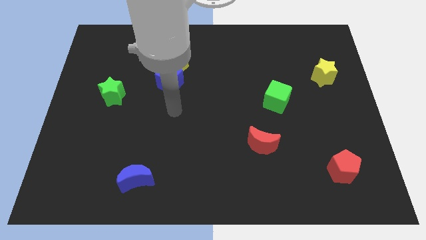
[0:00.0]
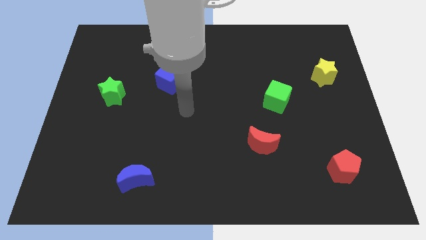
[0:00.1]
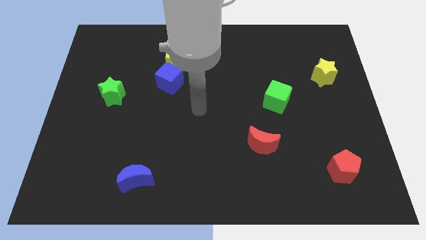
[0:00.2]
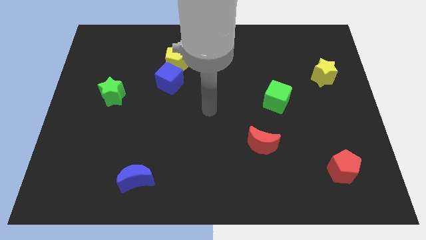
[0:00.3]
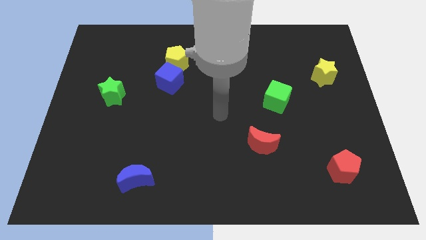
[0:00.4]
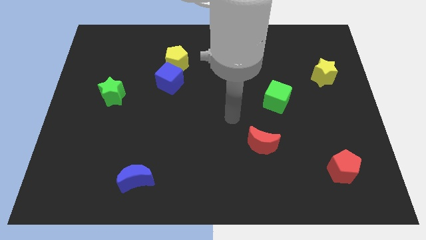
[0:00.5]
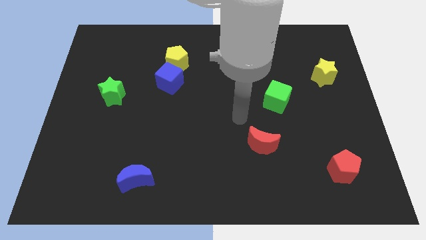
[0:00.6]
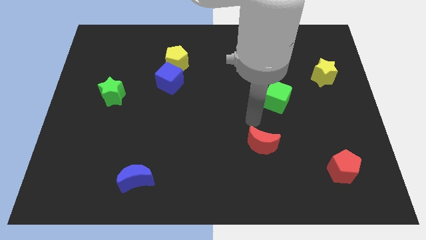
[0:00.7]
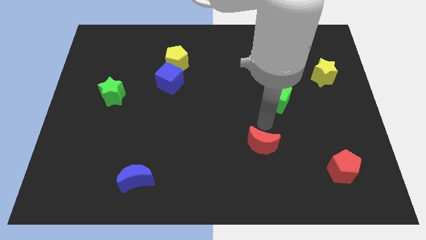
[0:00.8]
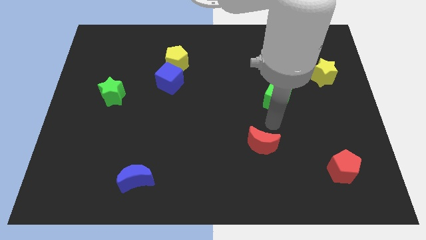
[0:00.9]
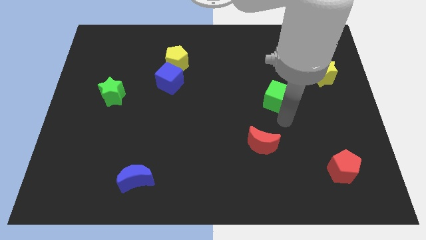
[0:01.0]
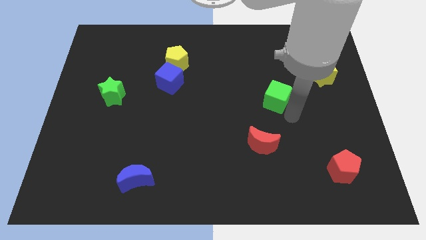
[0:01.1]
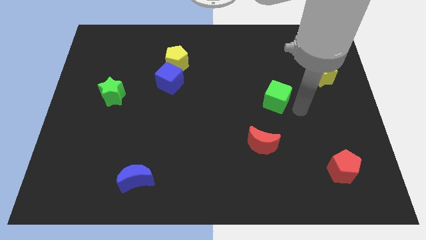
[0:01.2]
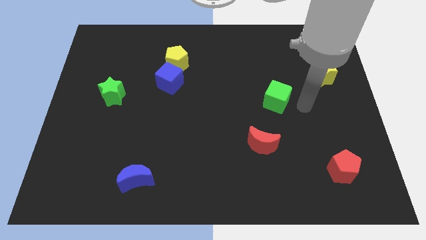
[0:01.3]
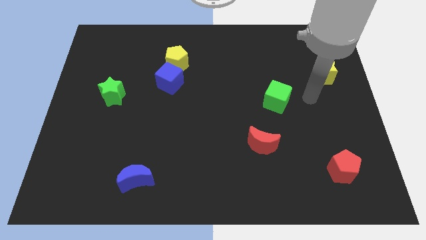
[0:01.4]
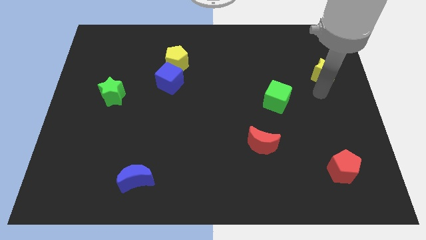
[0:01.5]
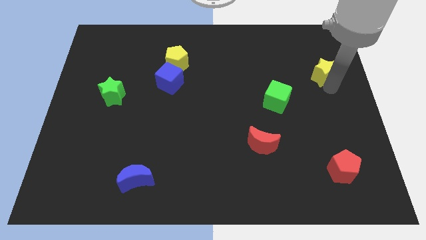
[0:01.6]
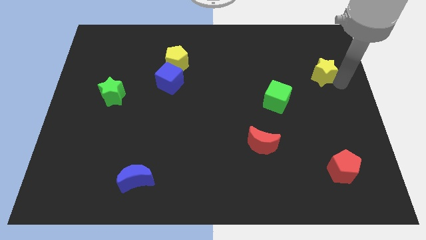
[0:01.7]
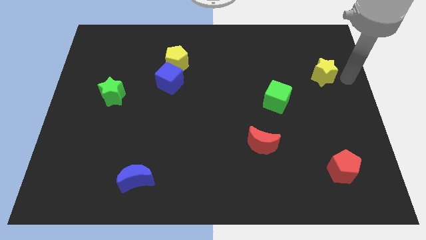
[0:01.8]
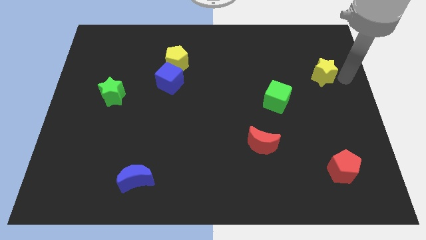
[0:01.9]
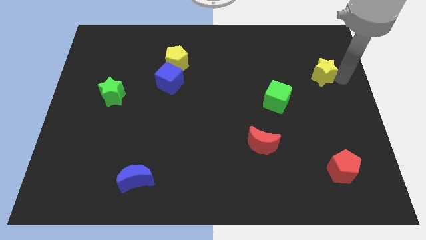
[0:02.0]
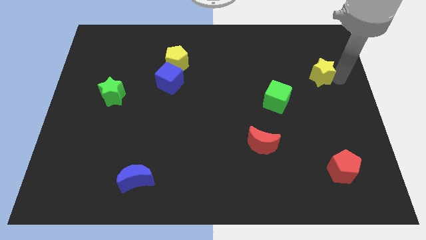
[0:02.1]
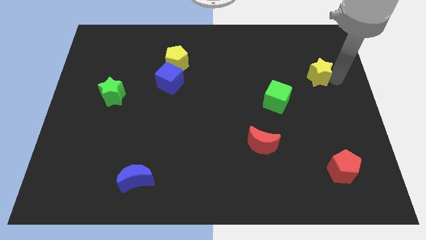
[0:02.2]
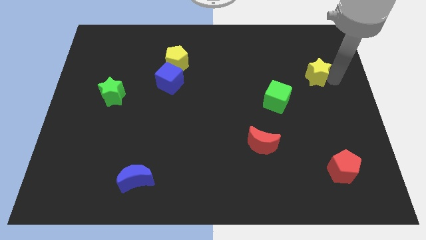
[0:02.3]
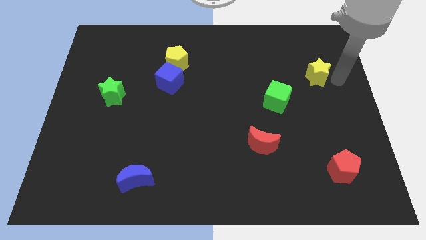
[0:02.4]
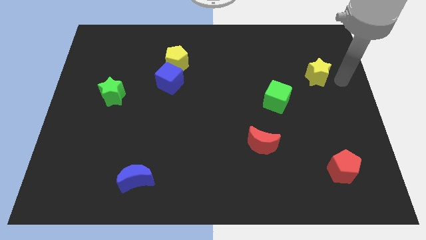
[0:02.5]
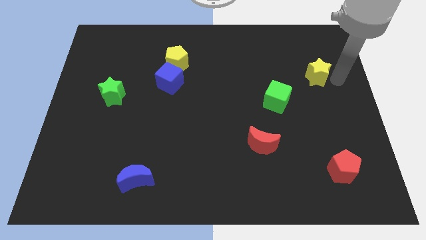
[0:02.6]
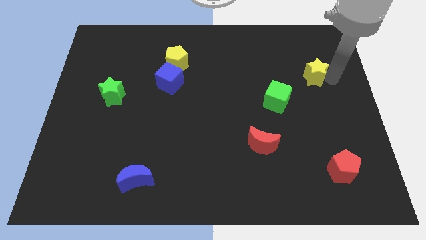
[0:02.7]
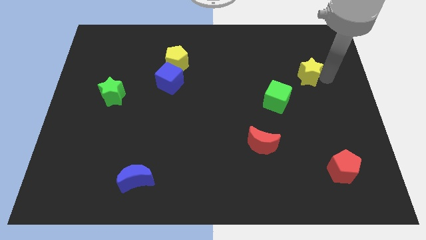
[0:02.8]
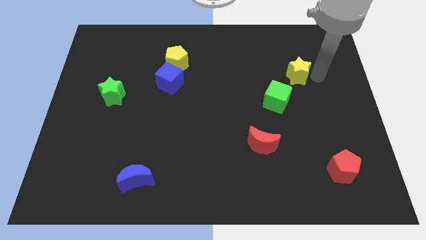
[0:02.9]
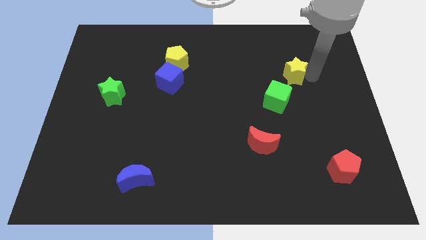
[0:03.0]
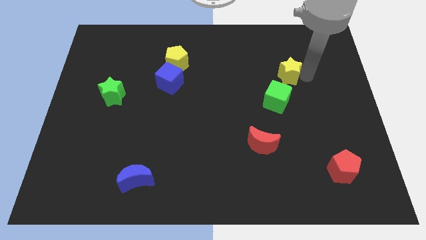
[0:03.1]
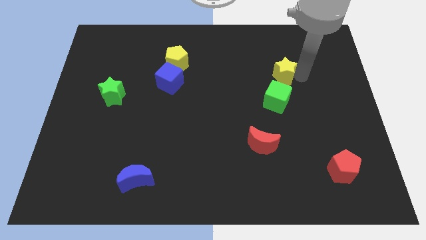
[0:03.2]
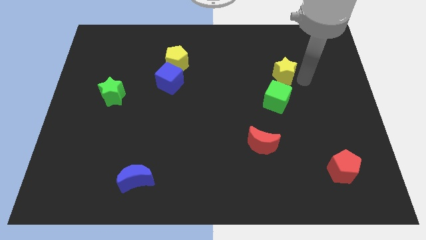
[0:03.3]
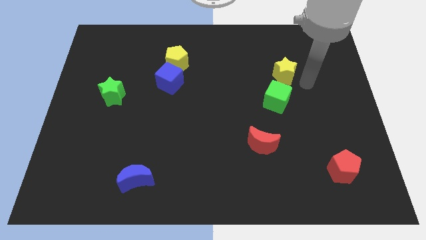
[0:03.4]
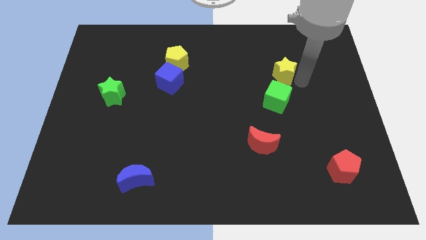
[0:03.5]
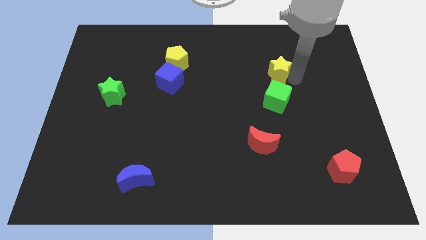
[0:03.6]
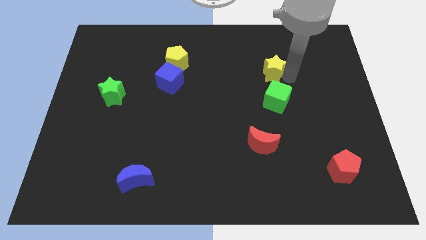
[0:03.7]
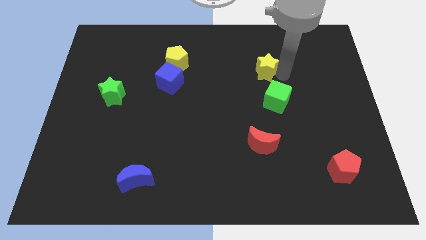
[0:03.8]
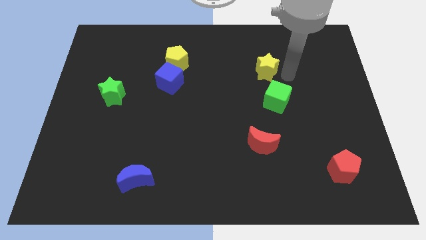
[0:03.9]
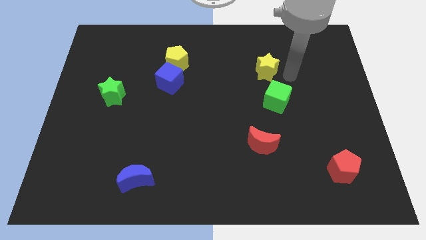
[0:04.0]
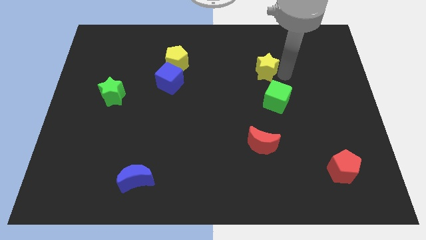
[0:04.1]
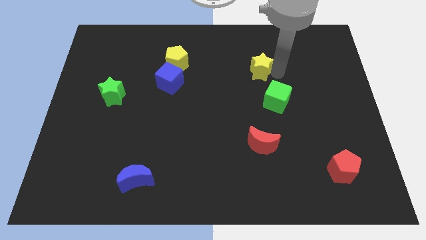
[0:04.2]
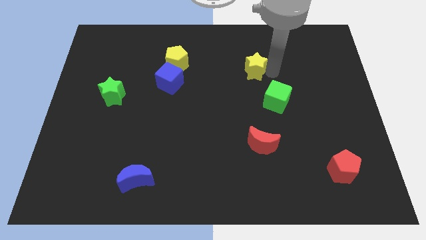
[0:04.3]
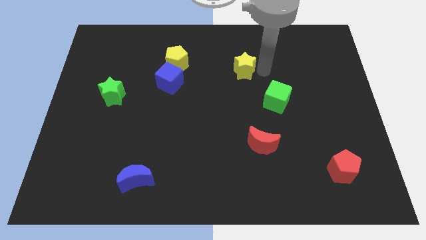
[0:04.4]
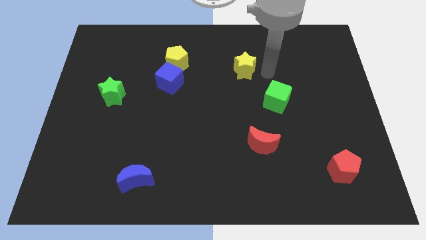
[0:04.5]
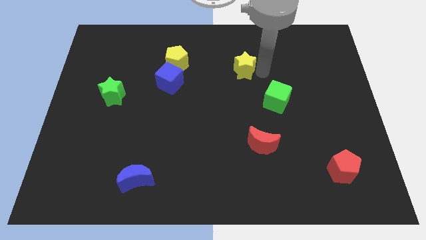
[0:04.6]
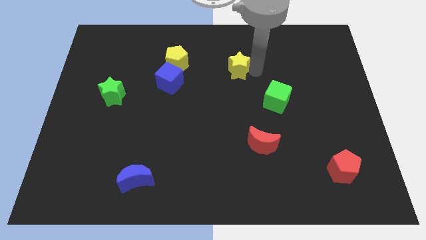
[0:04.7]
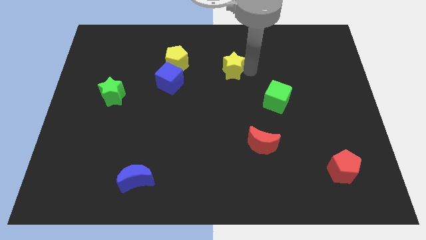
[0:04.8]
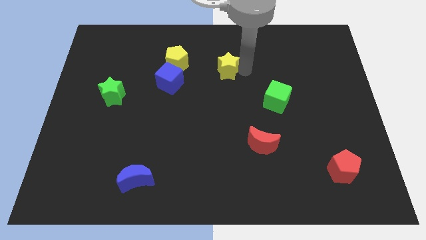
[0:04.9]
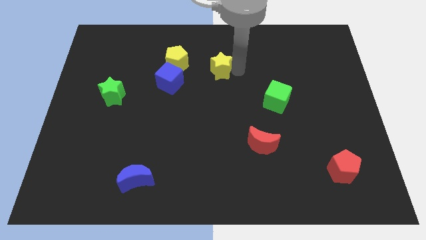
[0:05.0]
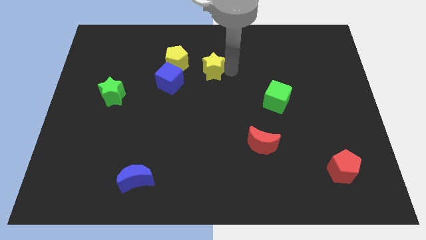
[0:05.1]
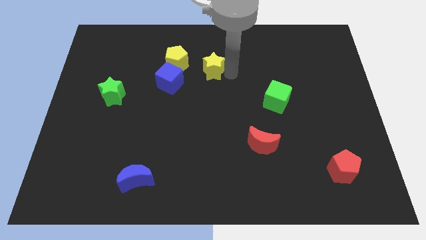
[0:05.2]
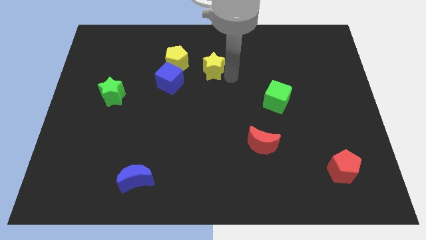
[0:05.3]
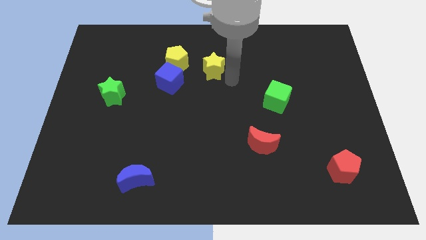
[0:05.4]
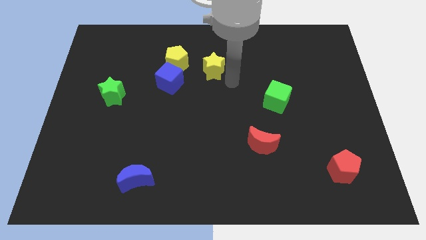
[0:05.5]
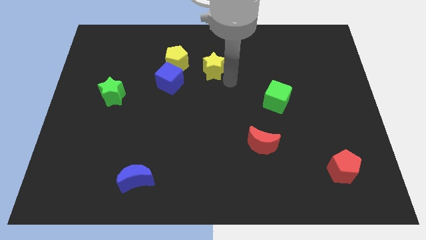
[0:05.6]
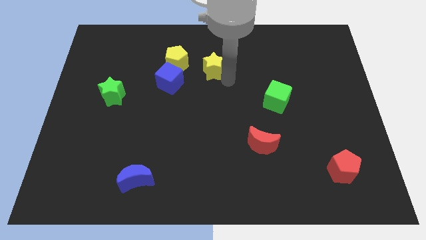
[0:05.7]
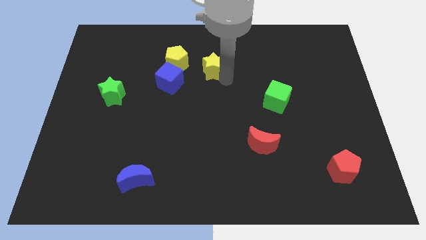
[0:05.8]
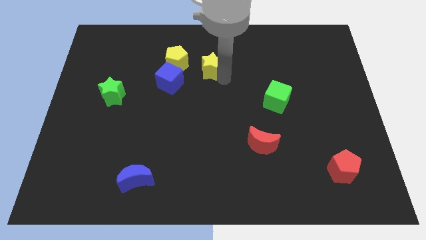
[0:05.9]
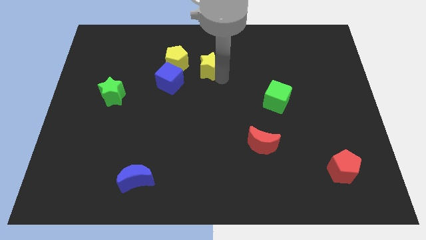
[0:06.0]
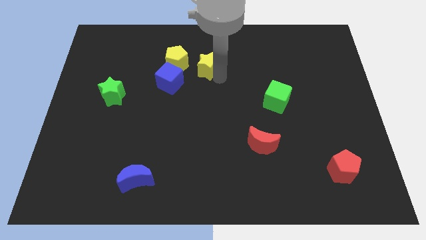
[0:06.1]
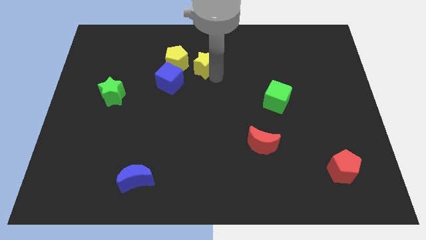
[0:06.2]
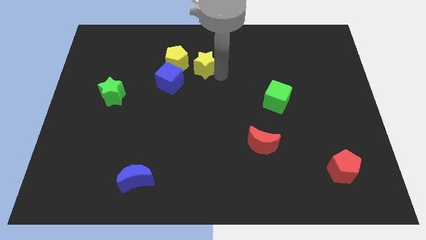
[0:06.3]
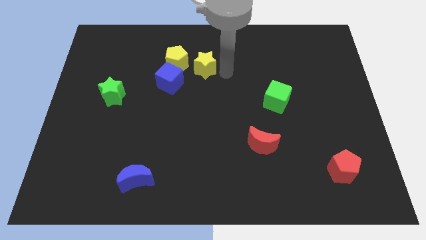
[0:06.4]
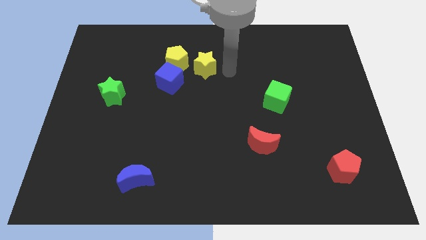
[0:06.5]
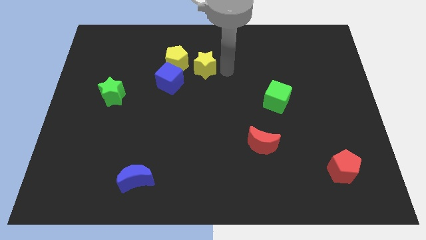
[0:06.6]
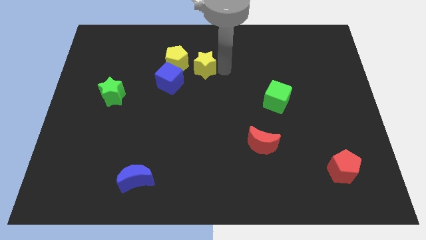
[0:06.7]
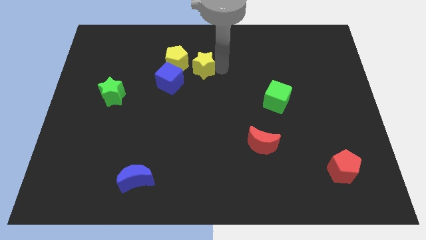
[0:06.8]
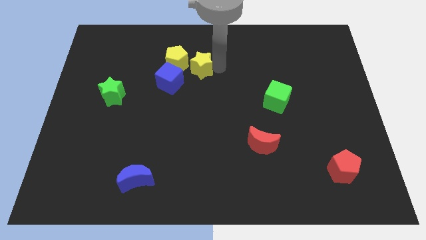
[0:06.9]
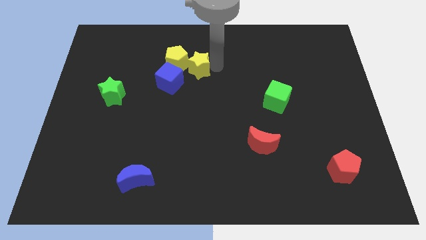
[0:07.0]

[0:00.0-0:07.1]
move the yellow star next to the yellow pentagon

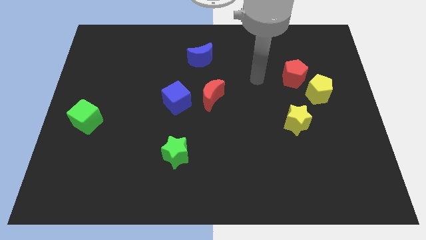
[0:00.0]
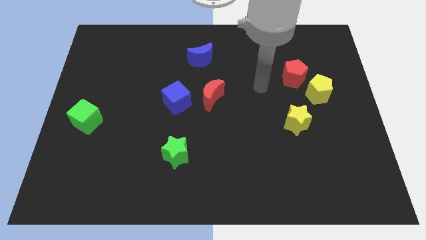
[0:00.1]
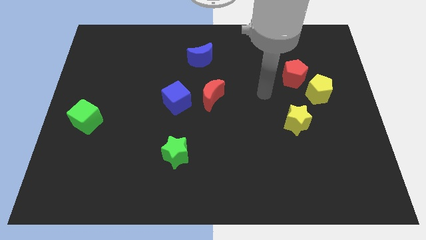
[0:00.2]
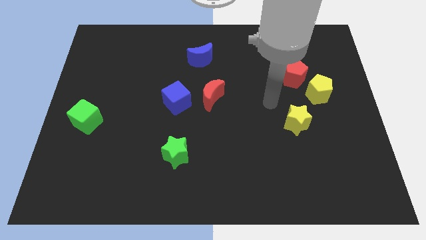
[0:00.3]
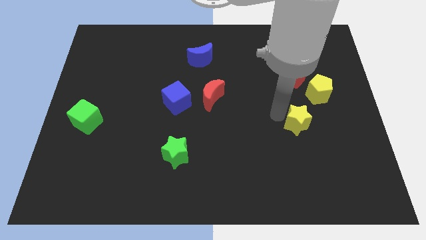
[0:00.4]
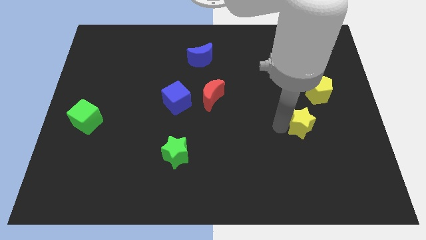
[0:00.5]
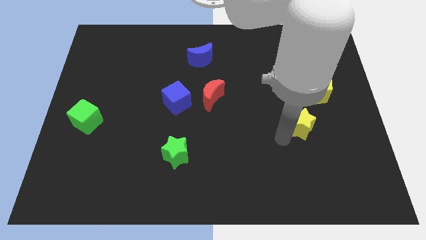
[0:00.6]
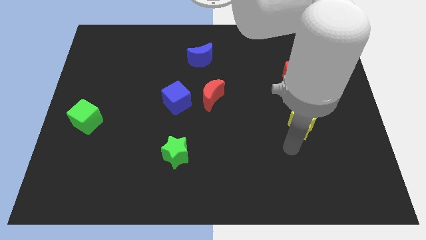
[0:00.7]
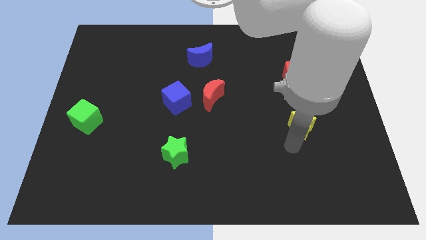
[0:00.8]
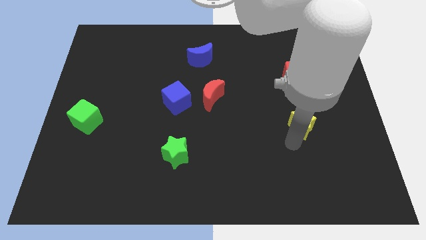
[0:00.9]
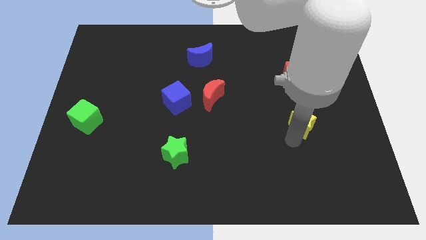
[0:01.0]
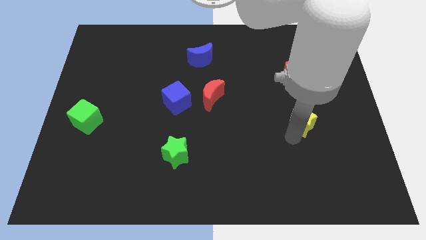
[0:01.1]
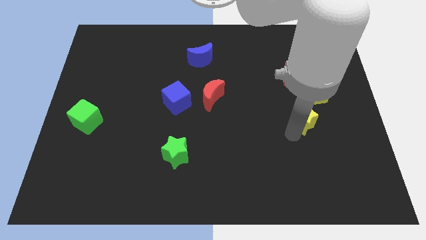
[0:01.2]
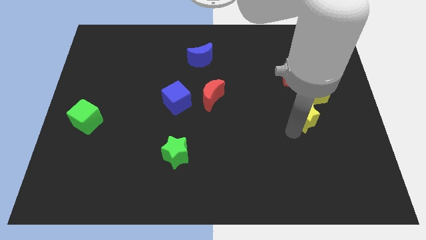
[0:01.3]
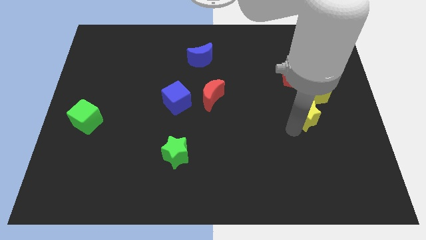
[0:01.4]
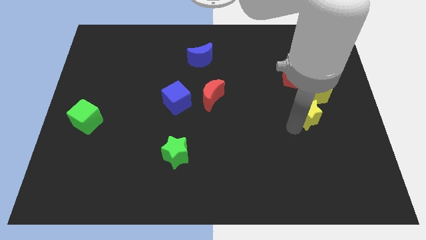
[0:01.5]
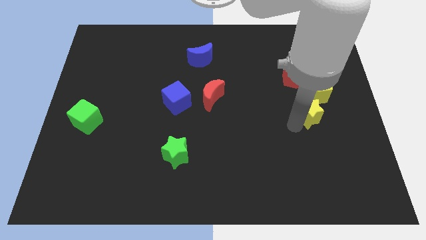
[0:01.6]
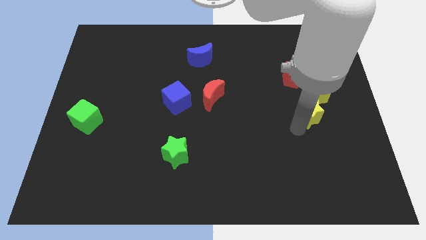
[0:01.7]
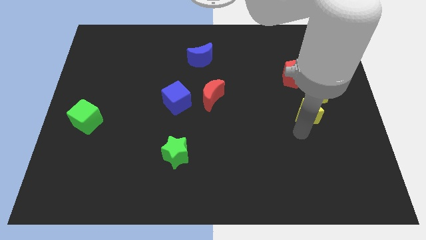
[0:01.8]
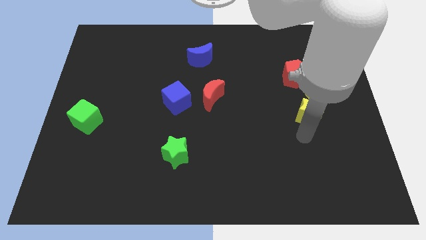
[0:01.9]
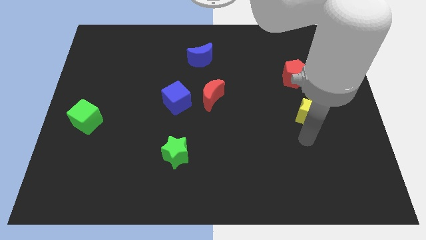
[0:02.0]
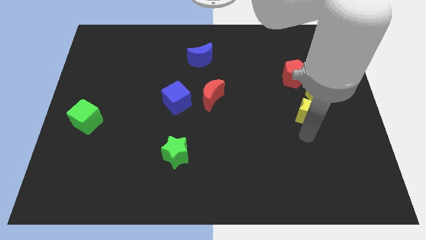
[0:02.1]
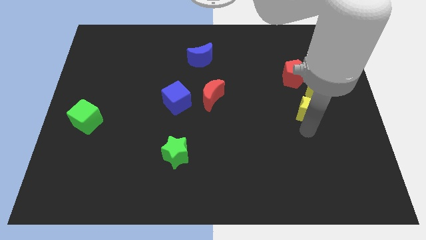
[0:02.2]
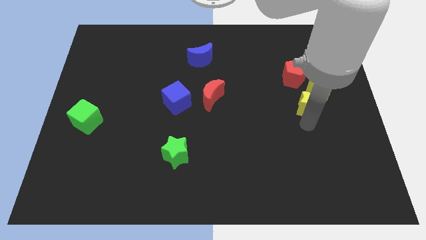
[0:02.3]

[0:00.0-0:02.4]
slide the yellow star close to the yellow pentagon
